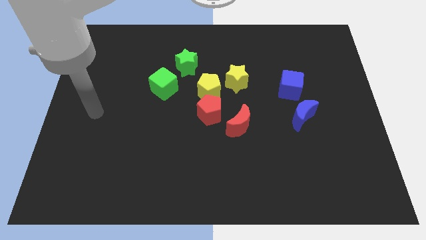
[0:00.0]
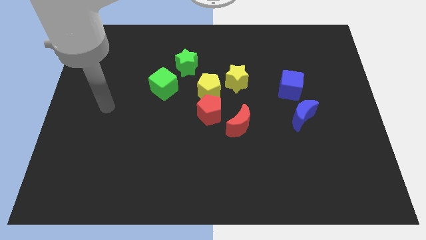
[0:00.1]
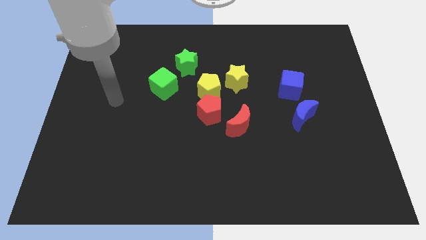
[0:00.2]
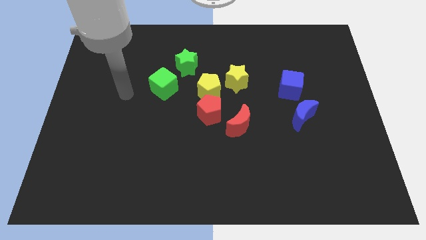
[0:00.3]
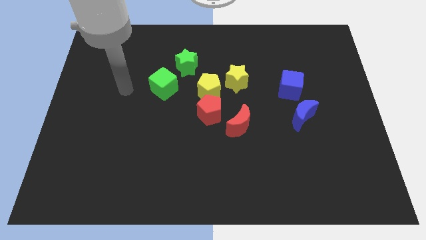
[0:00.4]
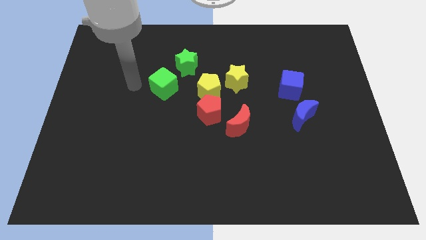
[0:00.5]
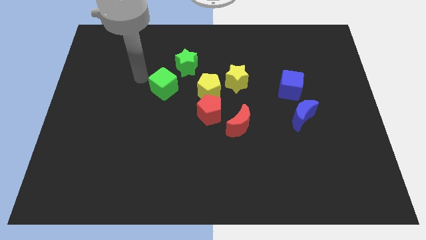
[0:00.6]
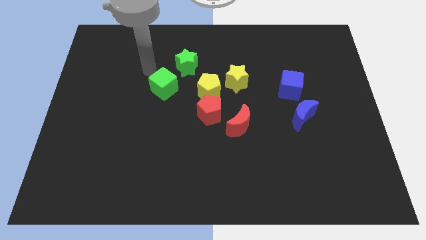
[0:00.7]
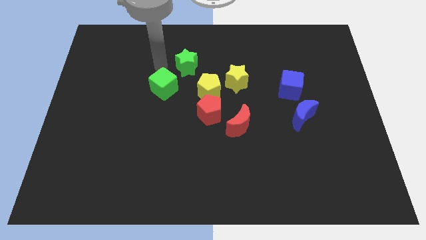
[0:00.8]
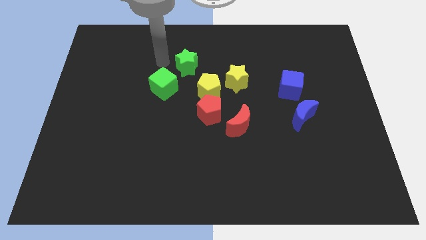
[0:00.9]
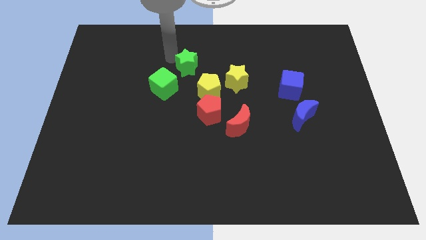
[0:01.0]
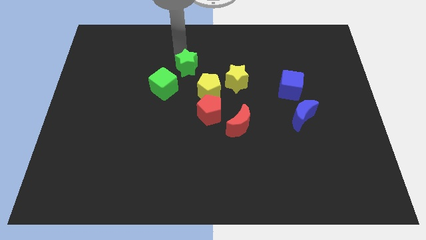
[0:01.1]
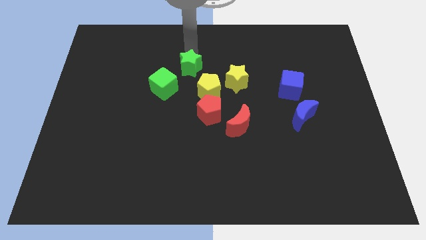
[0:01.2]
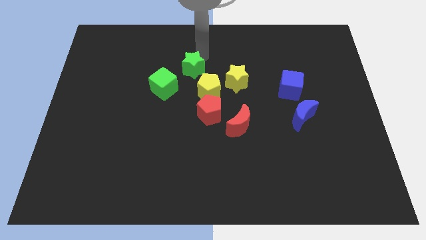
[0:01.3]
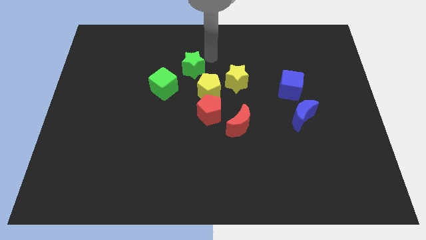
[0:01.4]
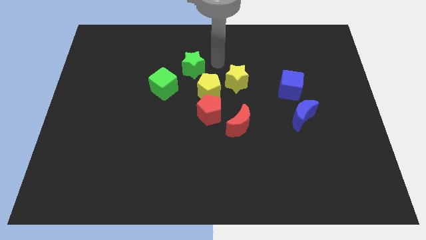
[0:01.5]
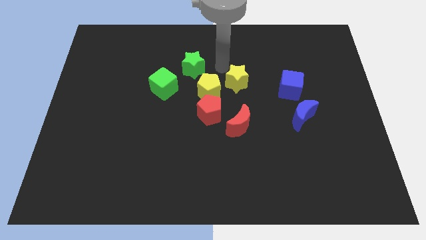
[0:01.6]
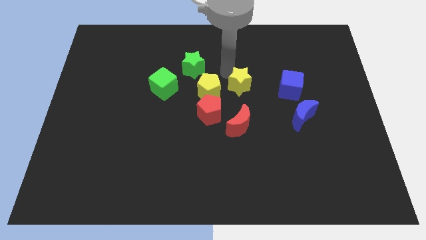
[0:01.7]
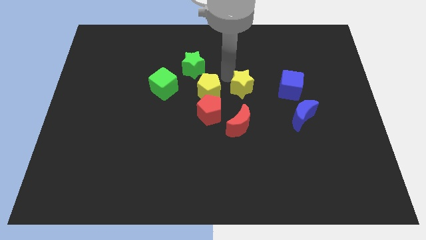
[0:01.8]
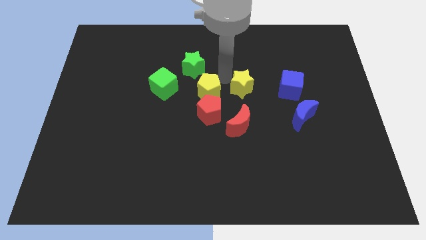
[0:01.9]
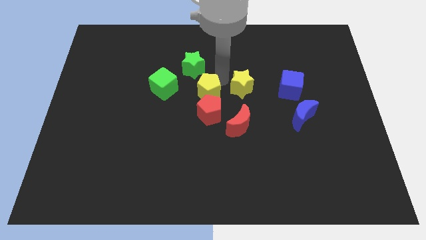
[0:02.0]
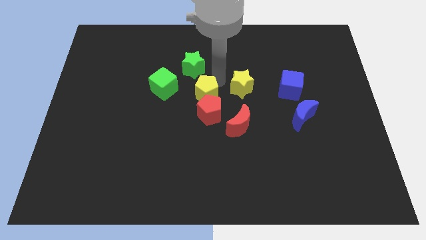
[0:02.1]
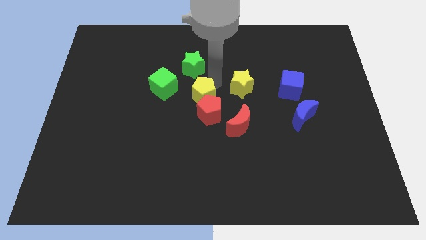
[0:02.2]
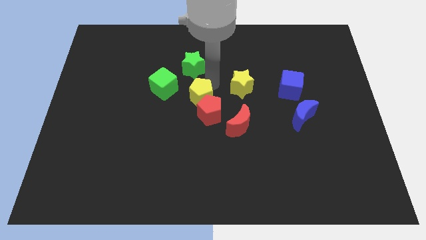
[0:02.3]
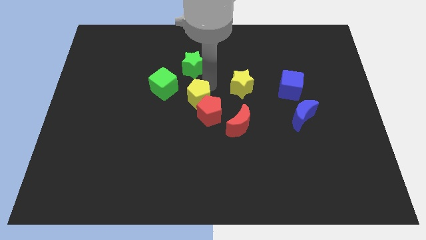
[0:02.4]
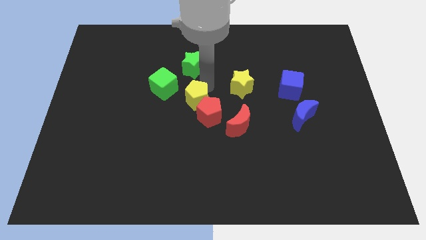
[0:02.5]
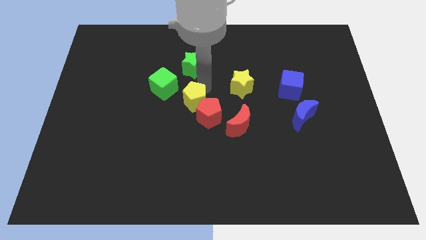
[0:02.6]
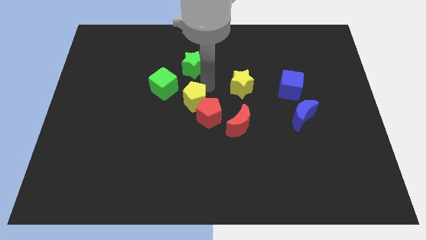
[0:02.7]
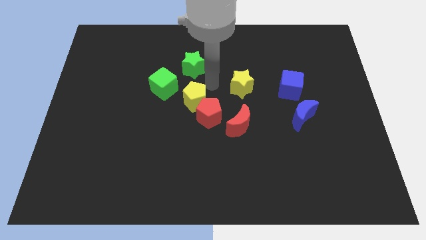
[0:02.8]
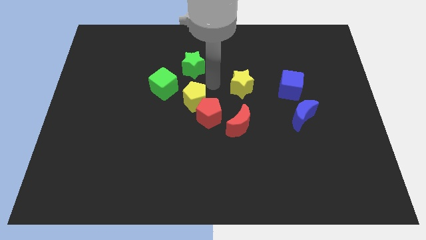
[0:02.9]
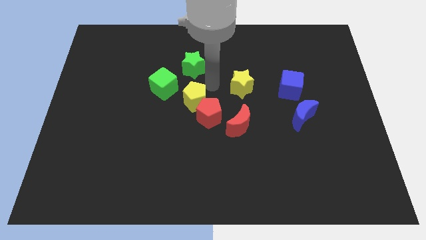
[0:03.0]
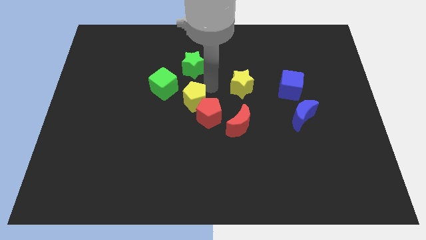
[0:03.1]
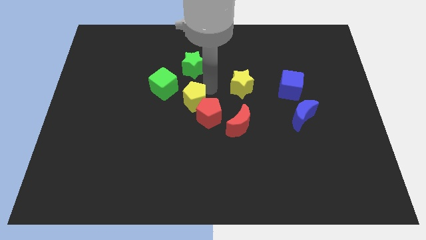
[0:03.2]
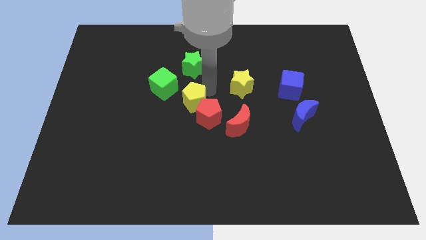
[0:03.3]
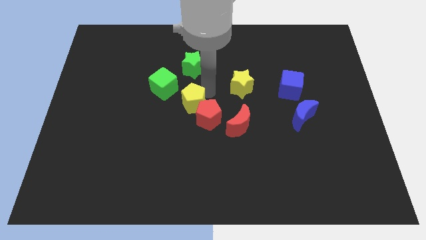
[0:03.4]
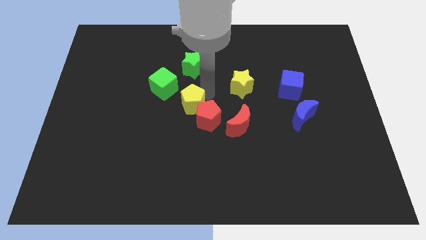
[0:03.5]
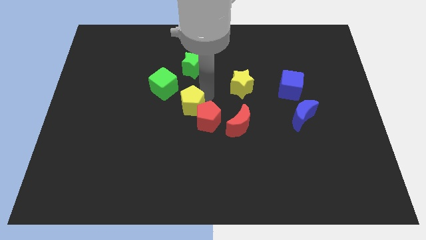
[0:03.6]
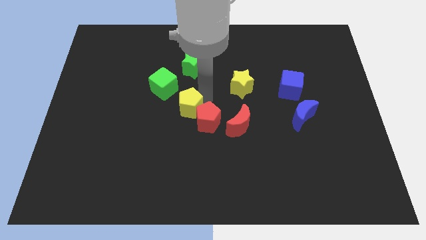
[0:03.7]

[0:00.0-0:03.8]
slightly slide the yellow pentagon downwards and left diagonally

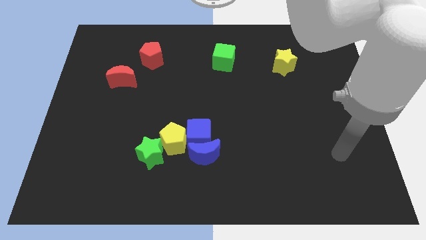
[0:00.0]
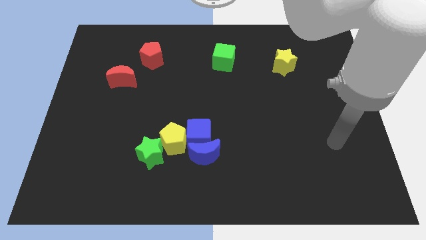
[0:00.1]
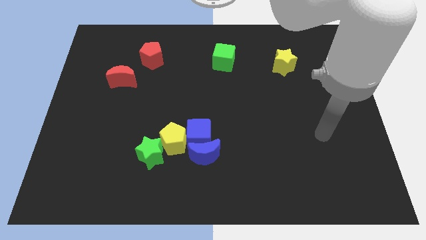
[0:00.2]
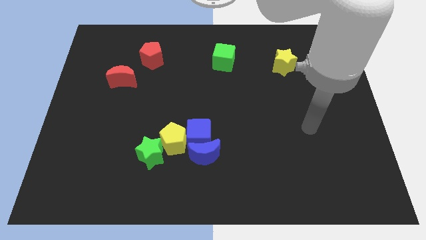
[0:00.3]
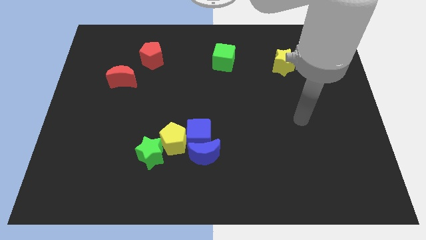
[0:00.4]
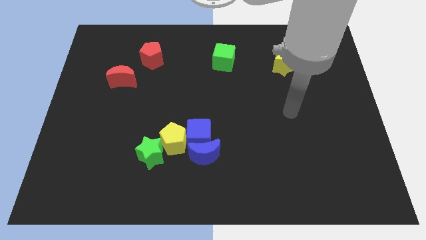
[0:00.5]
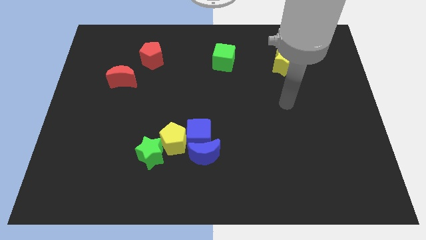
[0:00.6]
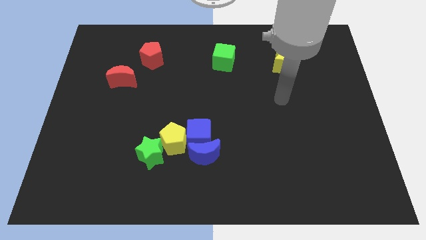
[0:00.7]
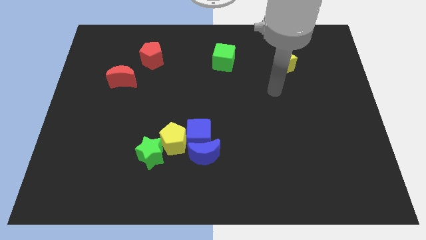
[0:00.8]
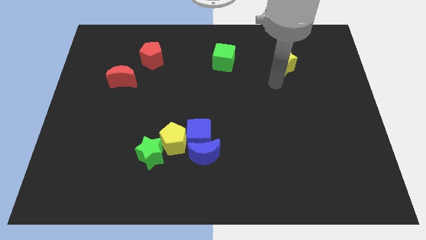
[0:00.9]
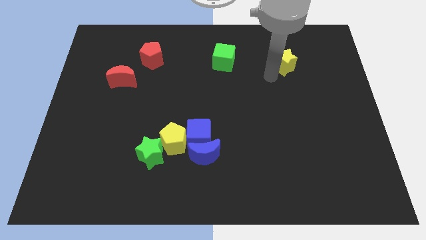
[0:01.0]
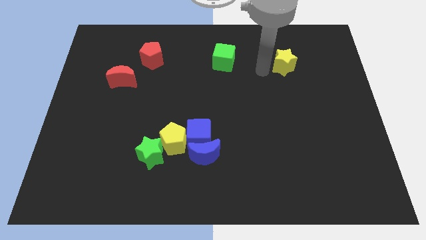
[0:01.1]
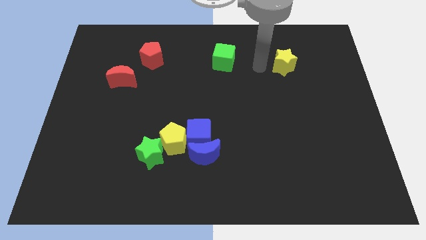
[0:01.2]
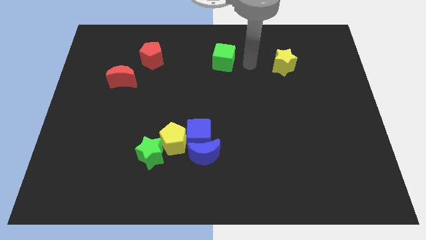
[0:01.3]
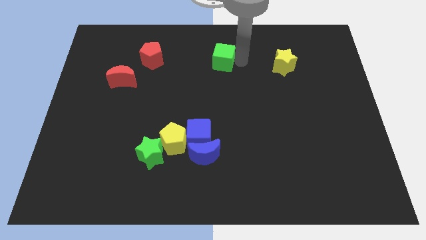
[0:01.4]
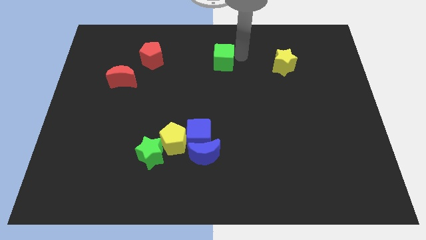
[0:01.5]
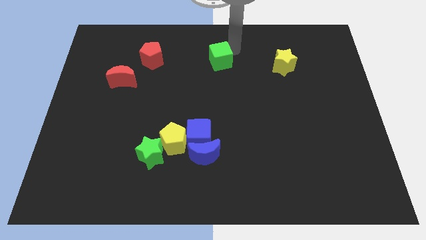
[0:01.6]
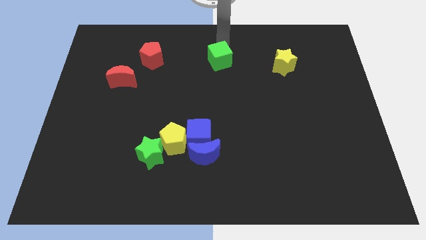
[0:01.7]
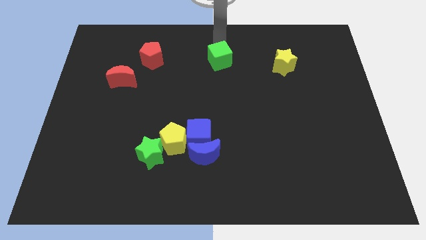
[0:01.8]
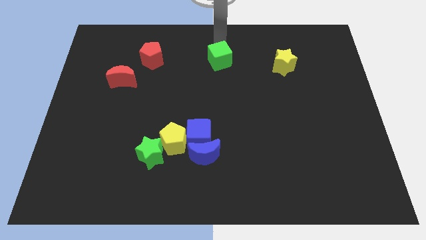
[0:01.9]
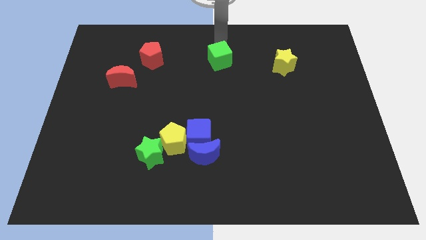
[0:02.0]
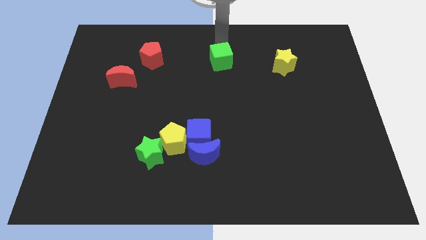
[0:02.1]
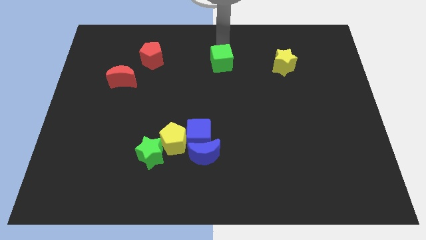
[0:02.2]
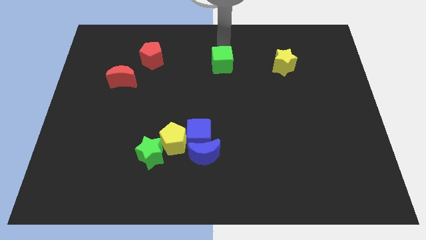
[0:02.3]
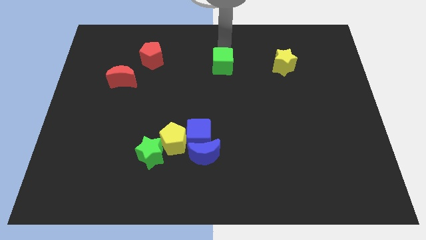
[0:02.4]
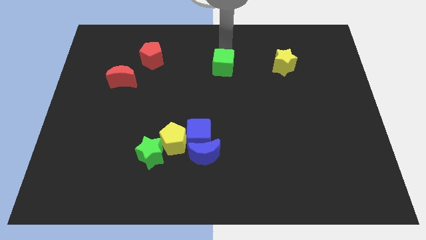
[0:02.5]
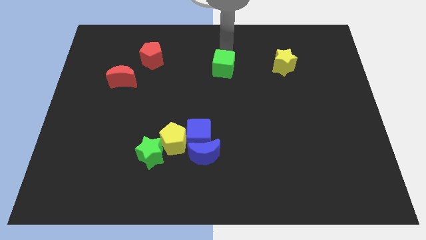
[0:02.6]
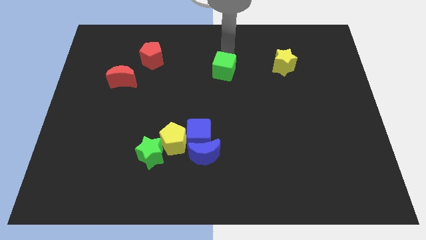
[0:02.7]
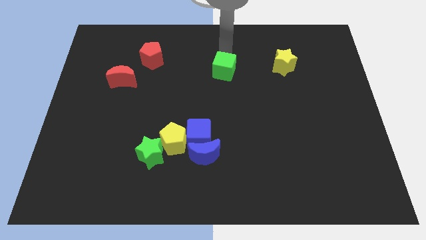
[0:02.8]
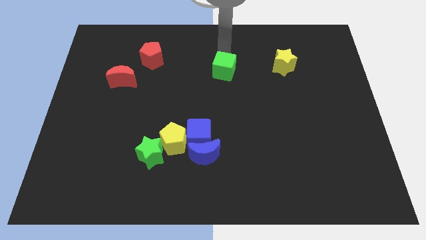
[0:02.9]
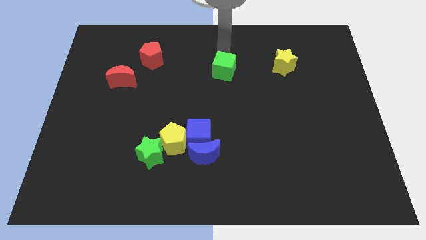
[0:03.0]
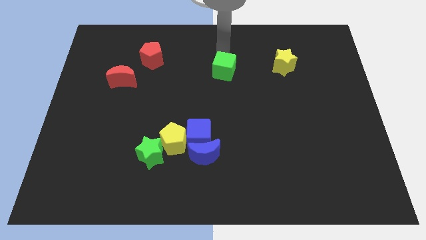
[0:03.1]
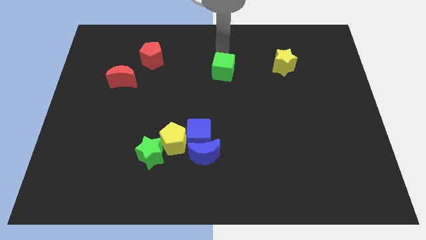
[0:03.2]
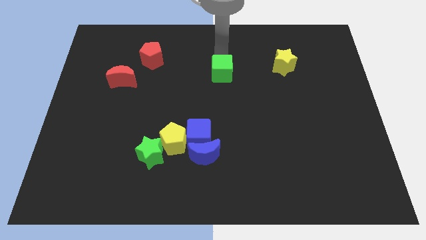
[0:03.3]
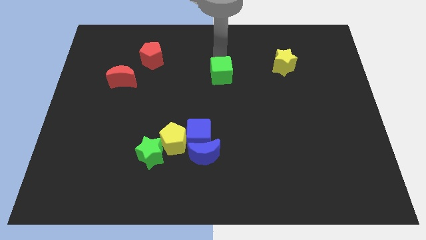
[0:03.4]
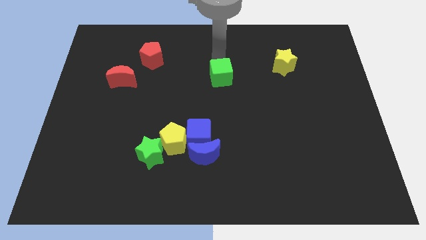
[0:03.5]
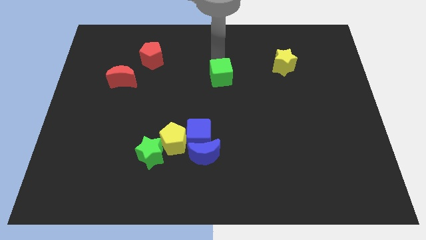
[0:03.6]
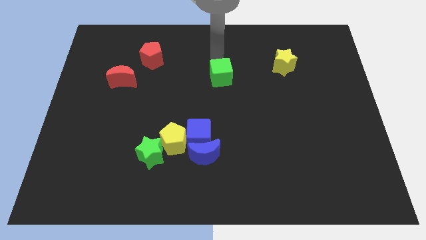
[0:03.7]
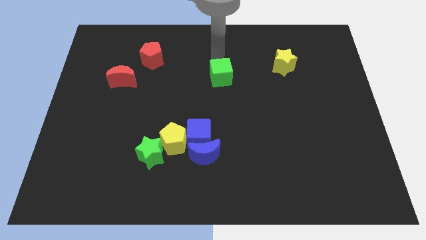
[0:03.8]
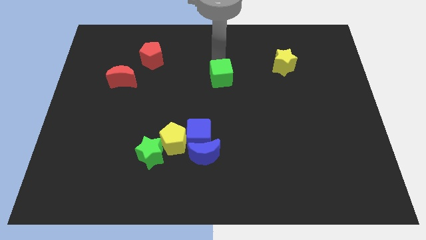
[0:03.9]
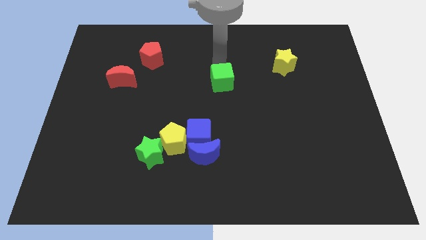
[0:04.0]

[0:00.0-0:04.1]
slightly move the green cube downwards

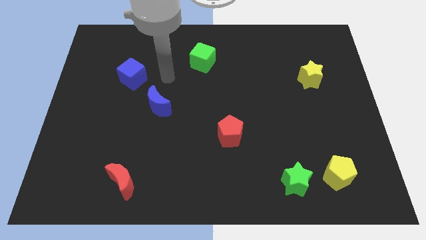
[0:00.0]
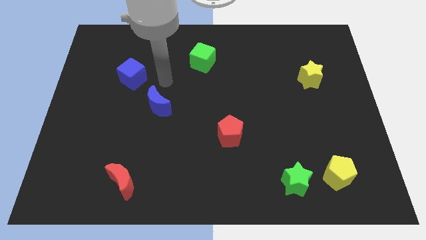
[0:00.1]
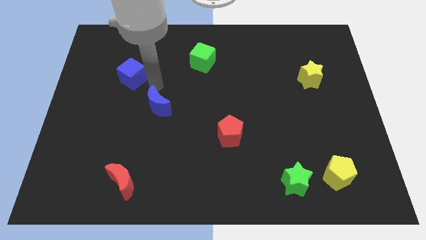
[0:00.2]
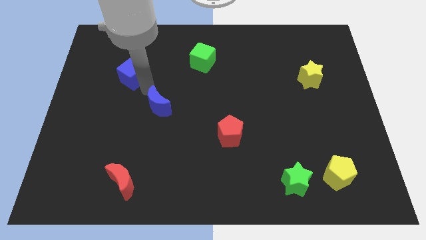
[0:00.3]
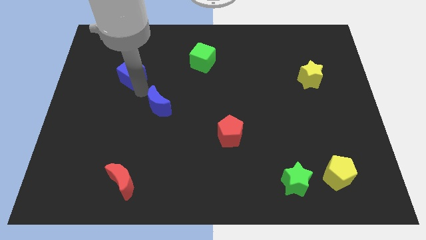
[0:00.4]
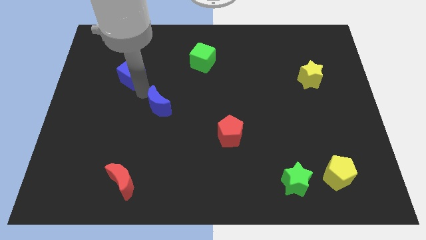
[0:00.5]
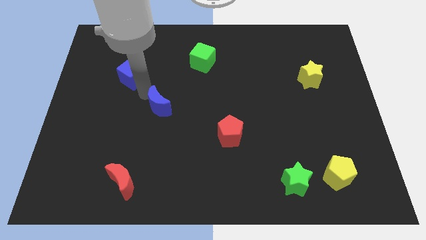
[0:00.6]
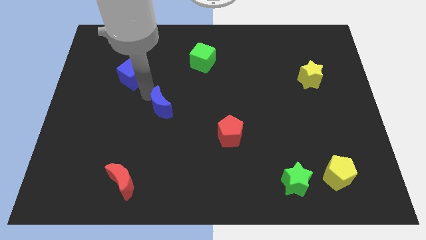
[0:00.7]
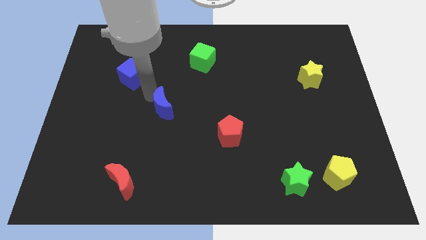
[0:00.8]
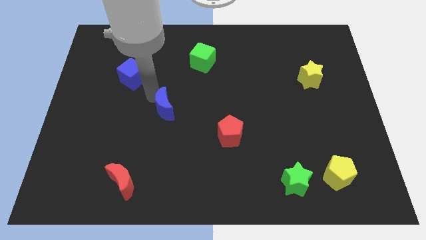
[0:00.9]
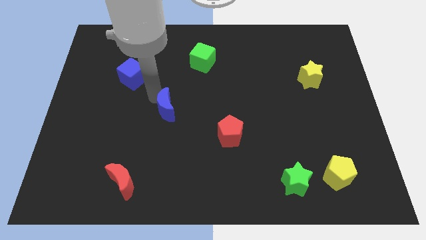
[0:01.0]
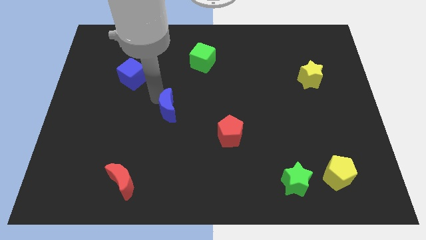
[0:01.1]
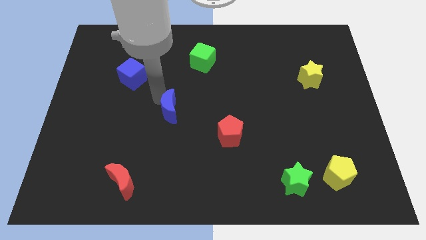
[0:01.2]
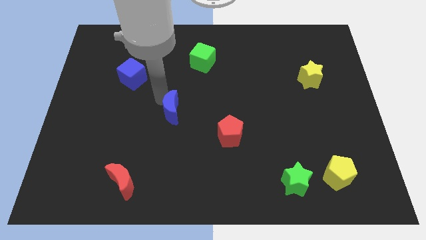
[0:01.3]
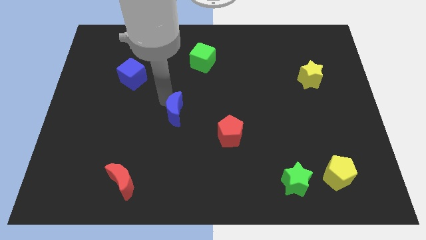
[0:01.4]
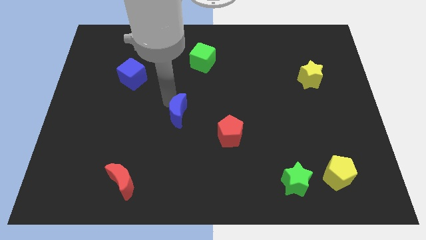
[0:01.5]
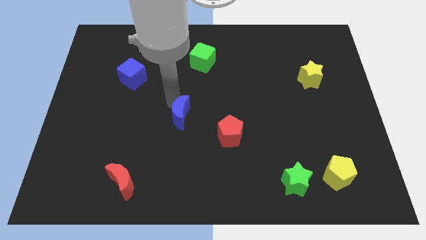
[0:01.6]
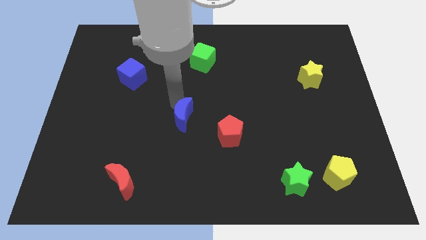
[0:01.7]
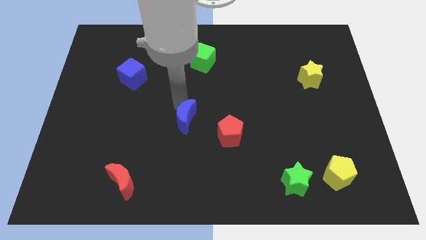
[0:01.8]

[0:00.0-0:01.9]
slide the blue moon downwards and right diagonally somewhat
